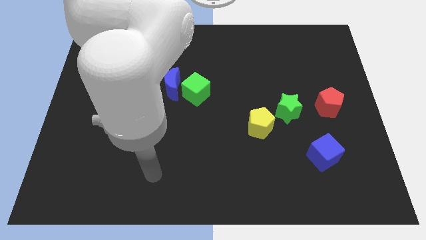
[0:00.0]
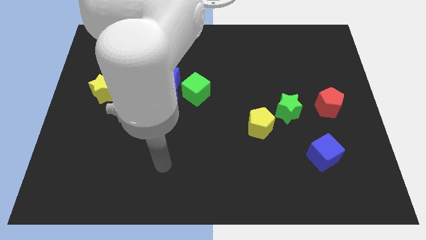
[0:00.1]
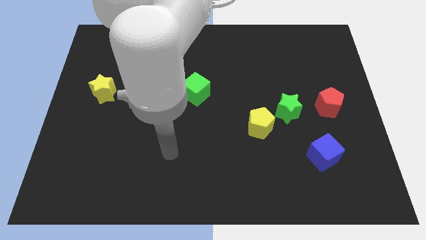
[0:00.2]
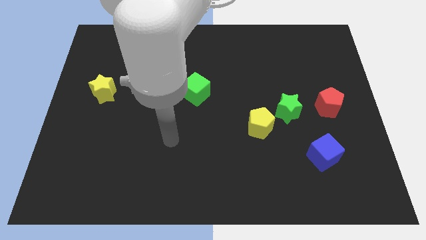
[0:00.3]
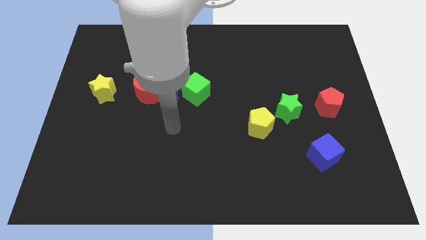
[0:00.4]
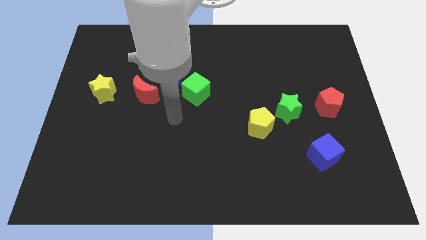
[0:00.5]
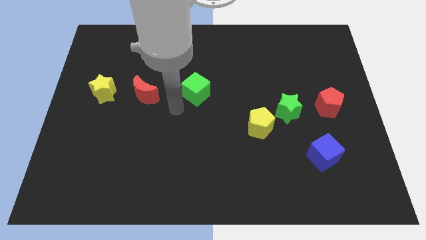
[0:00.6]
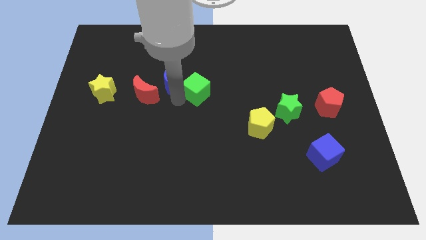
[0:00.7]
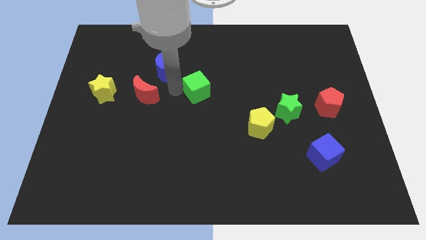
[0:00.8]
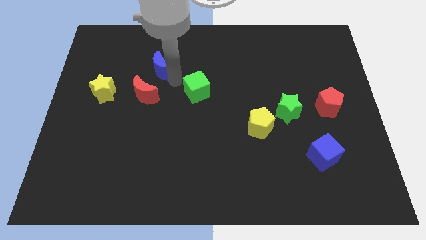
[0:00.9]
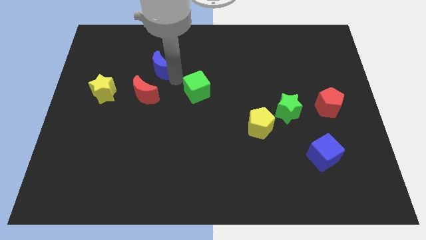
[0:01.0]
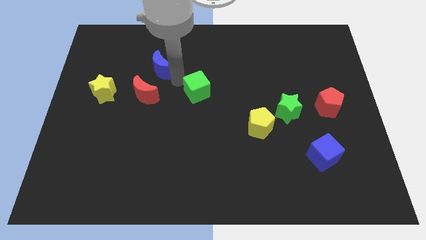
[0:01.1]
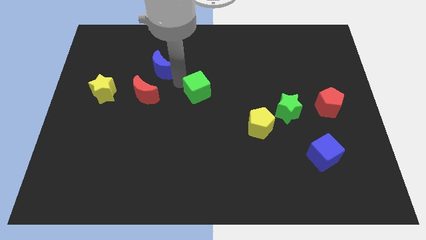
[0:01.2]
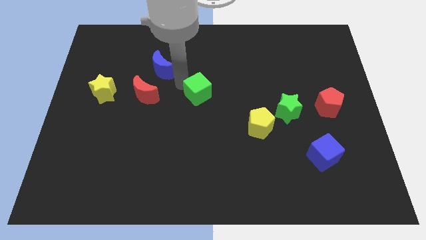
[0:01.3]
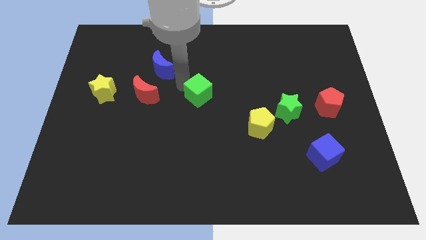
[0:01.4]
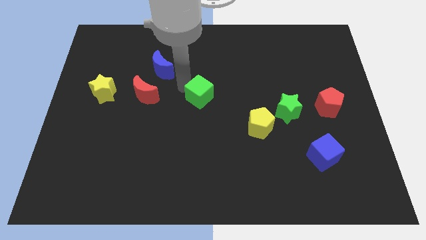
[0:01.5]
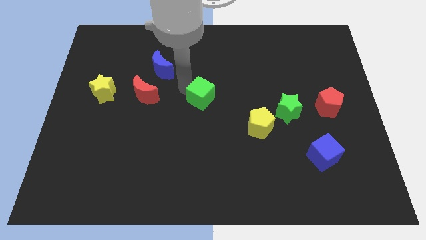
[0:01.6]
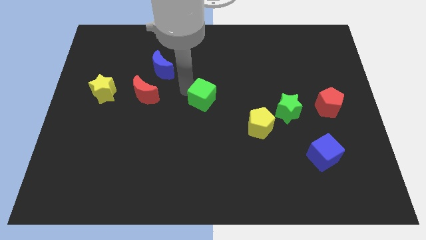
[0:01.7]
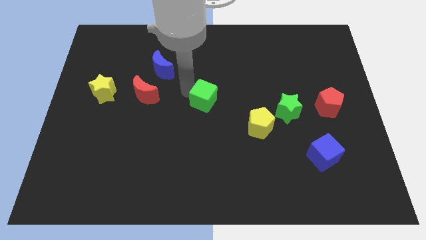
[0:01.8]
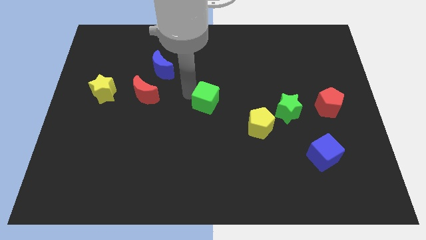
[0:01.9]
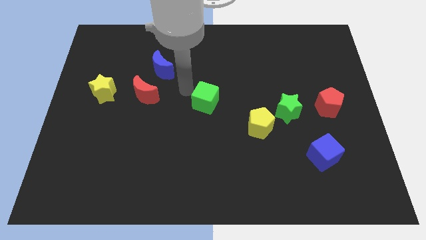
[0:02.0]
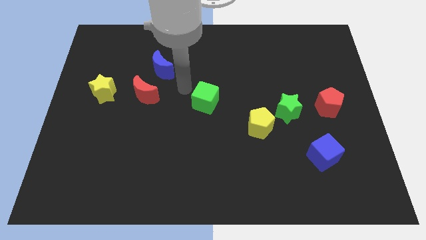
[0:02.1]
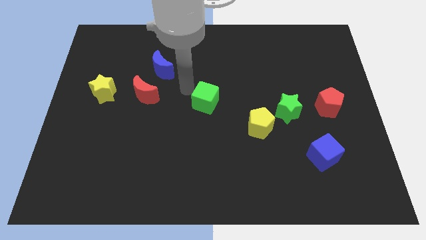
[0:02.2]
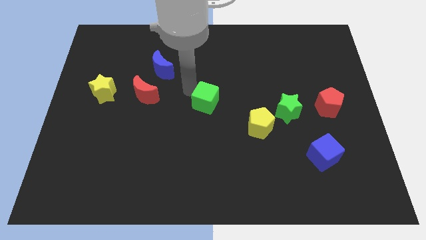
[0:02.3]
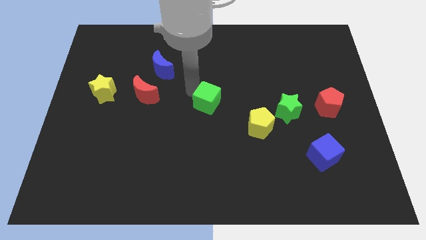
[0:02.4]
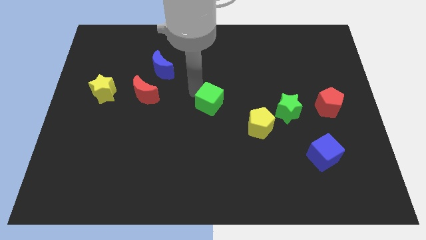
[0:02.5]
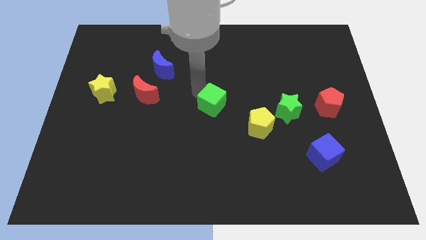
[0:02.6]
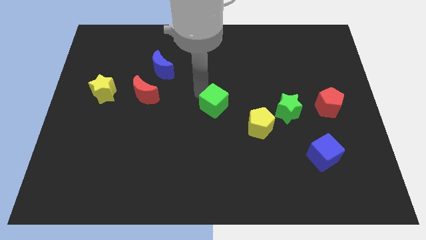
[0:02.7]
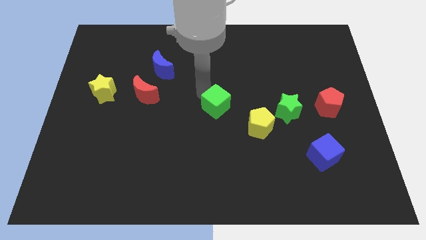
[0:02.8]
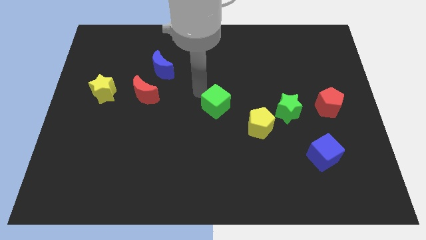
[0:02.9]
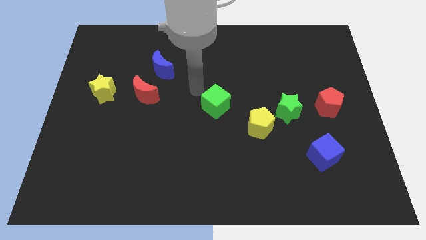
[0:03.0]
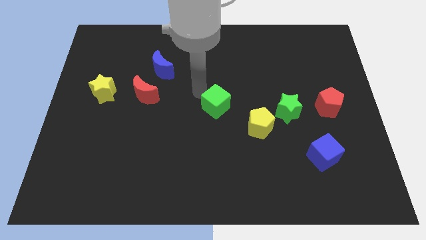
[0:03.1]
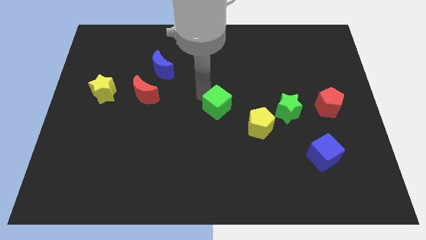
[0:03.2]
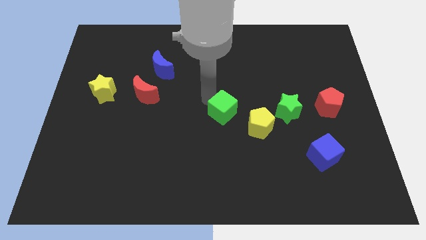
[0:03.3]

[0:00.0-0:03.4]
move the green cube a little diagonally down and to the right

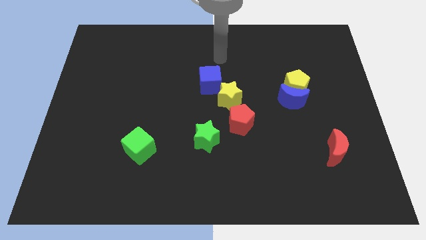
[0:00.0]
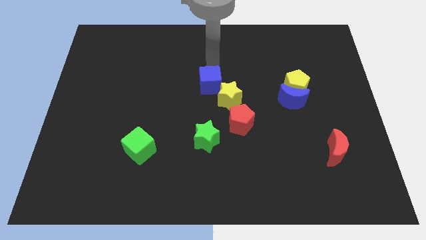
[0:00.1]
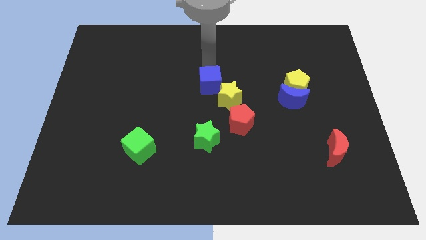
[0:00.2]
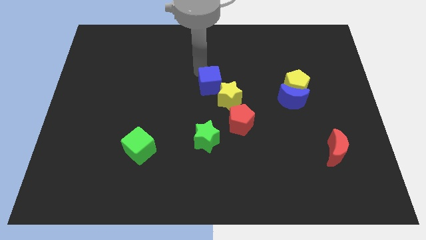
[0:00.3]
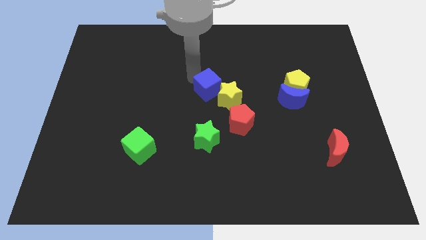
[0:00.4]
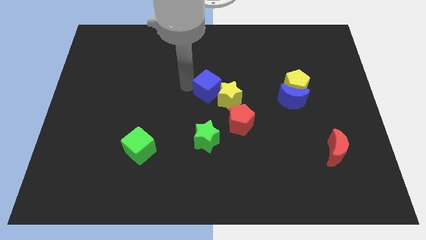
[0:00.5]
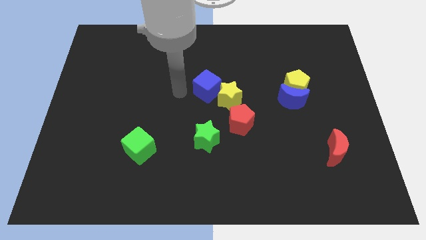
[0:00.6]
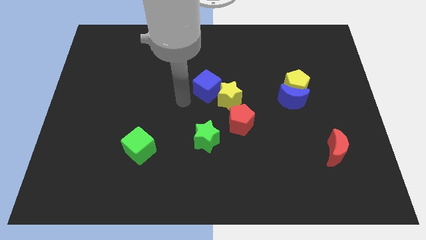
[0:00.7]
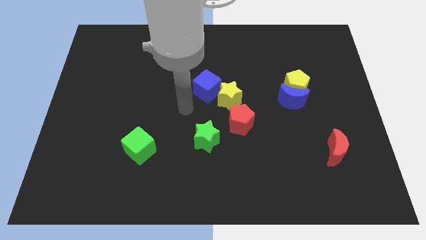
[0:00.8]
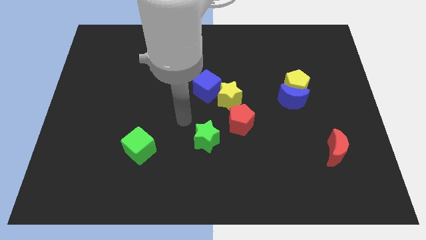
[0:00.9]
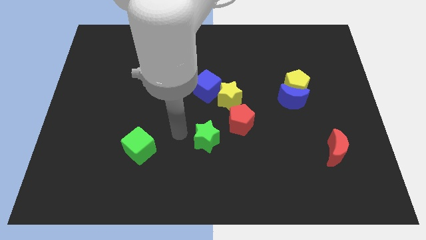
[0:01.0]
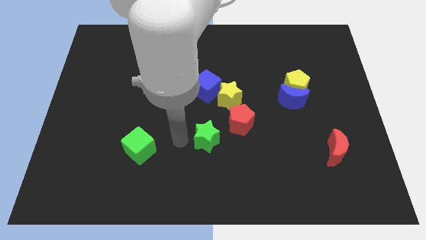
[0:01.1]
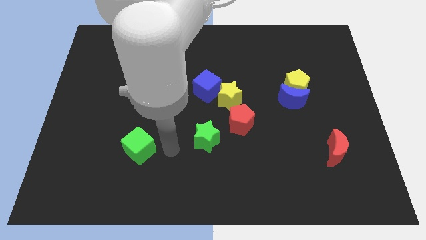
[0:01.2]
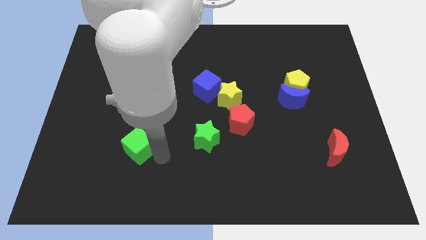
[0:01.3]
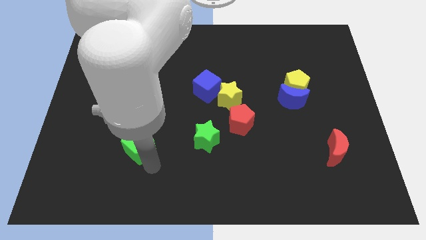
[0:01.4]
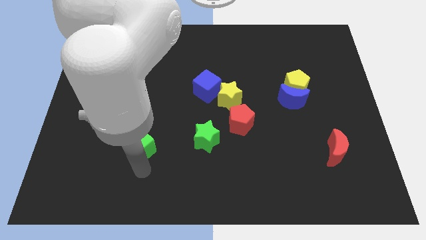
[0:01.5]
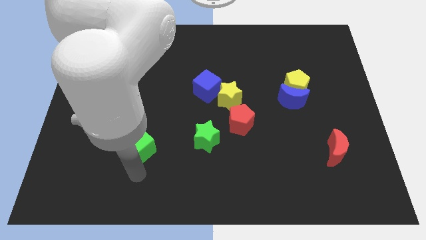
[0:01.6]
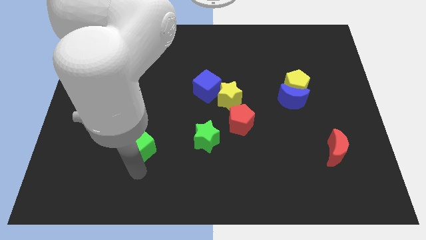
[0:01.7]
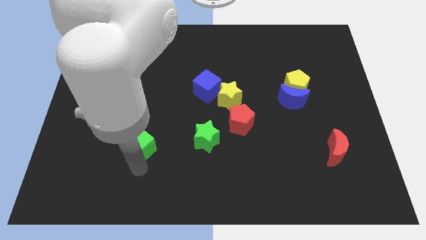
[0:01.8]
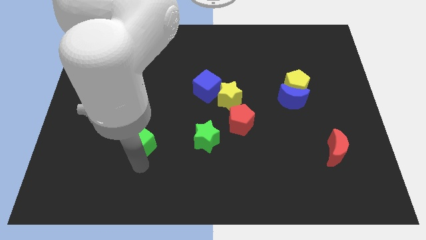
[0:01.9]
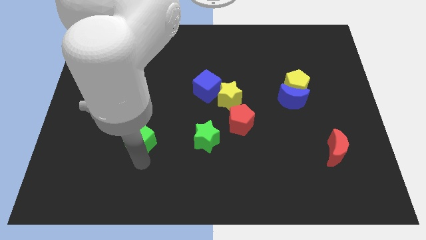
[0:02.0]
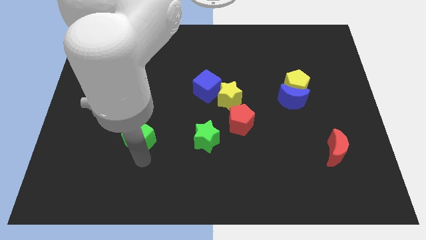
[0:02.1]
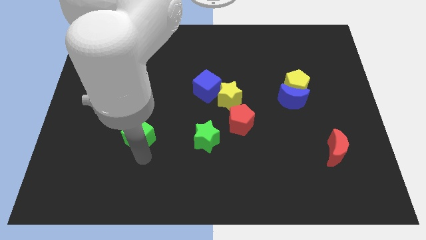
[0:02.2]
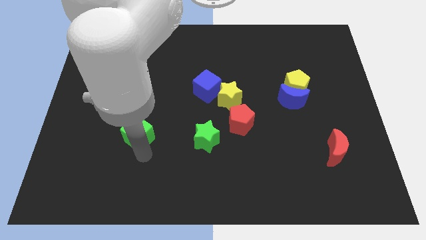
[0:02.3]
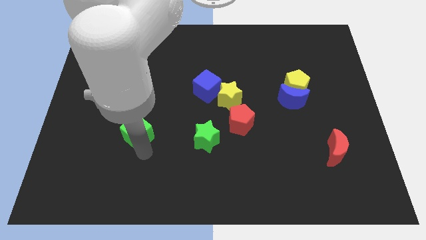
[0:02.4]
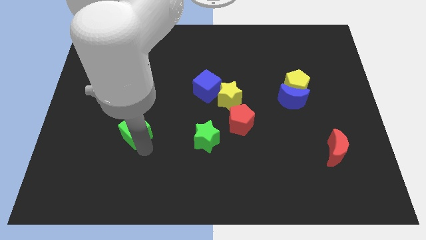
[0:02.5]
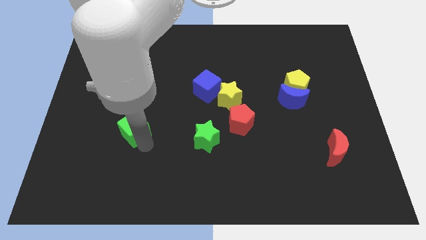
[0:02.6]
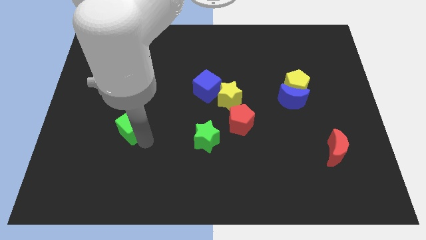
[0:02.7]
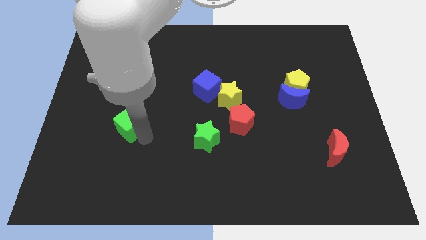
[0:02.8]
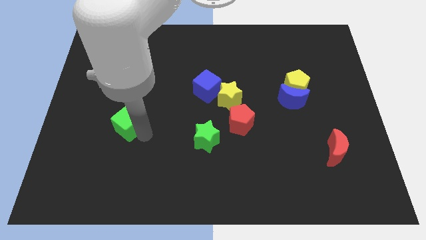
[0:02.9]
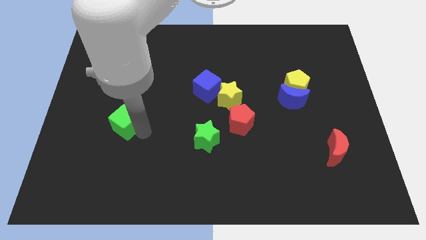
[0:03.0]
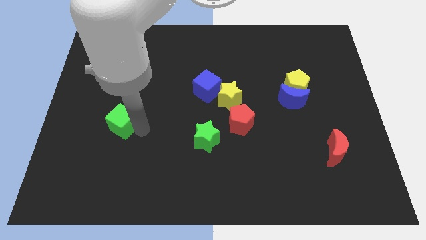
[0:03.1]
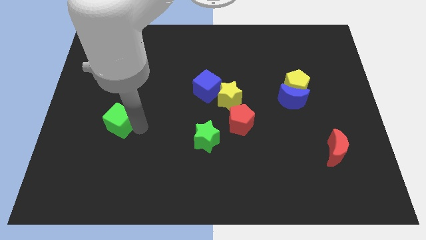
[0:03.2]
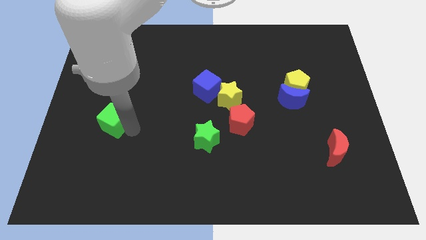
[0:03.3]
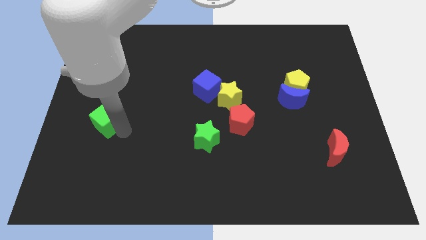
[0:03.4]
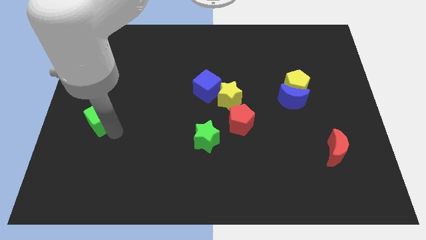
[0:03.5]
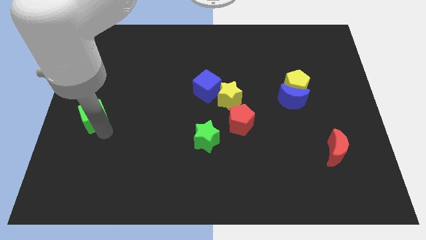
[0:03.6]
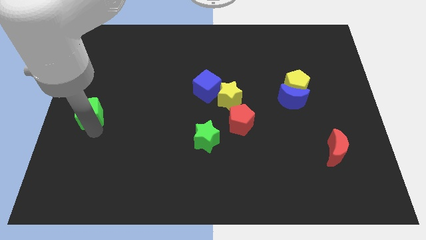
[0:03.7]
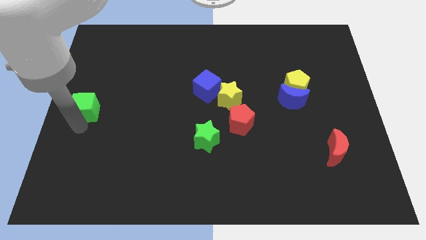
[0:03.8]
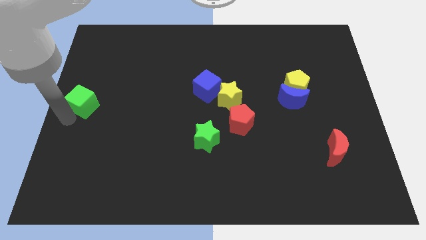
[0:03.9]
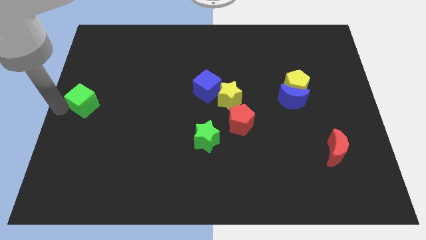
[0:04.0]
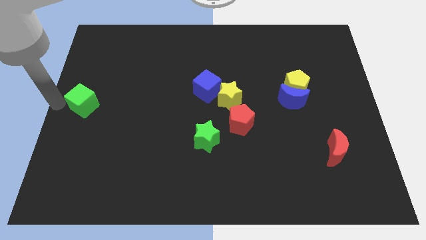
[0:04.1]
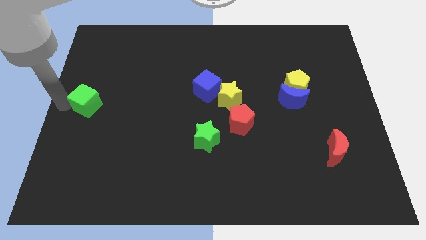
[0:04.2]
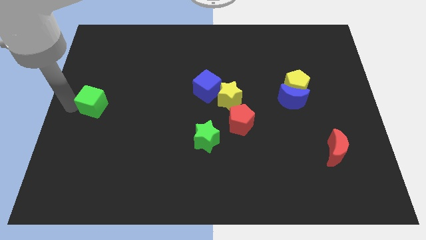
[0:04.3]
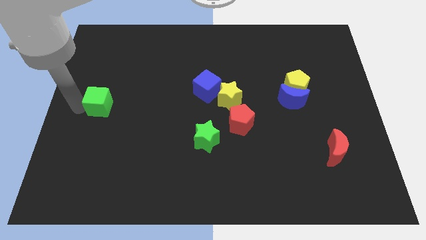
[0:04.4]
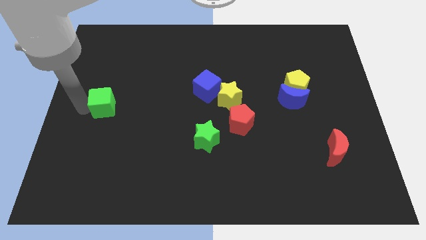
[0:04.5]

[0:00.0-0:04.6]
slide the green cube a little bit upwards

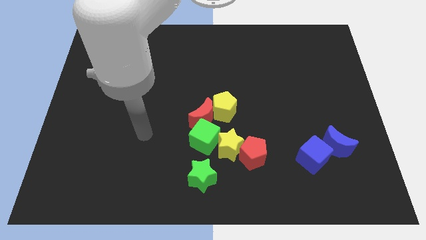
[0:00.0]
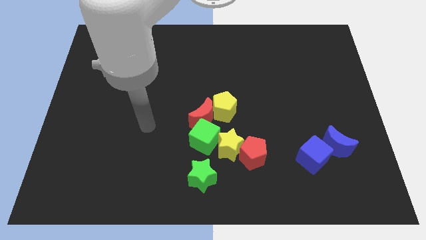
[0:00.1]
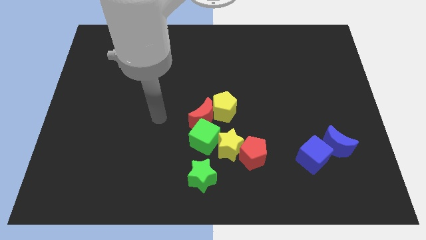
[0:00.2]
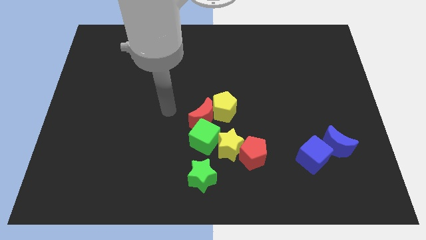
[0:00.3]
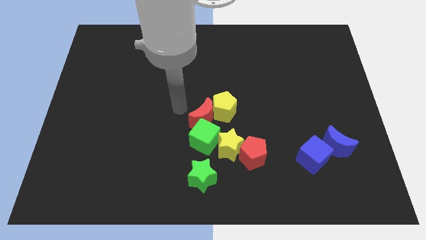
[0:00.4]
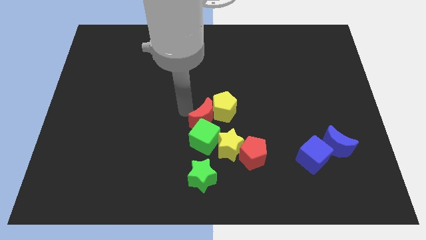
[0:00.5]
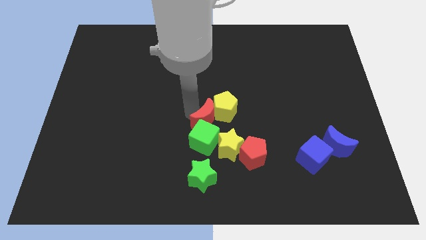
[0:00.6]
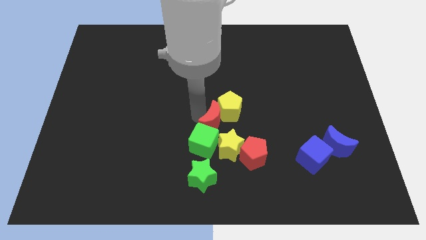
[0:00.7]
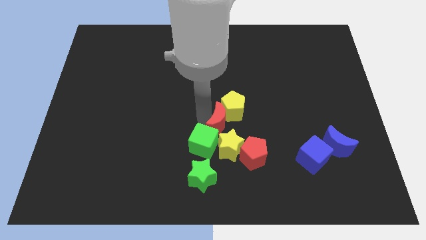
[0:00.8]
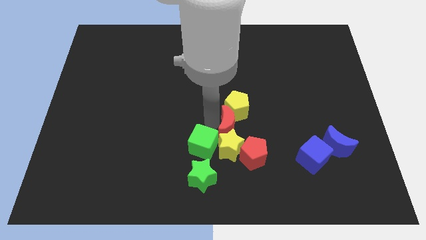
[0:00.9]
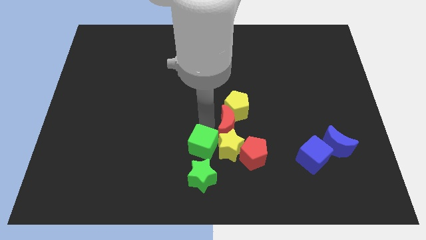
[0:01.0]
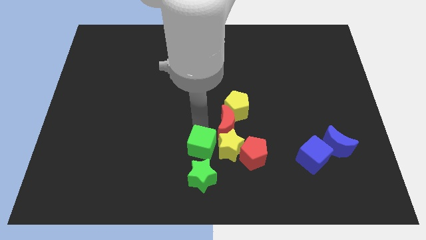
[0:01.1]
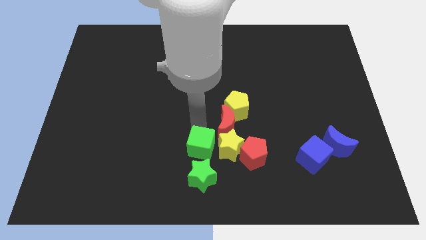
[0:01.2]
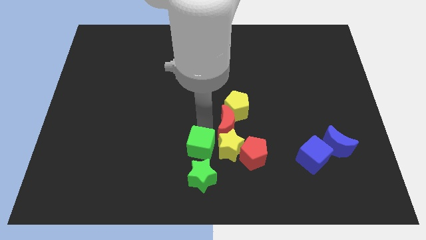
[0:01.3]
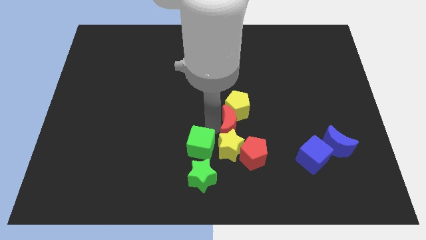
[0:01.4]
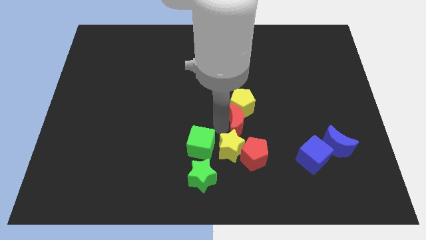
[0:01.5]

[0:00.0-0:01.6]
move the red moon somewhat right
